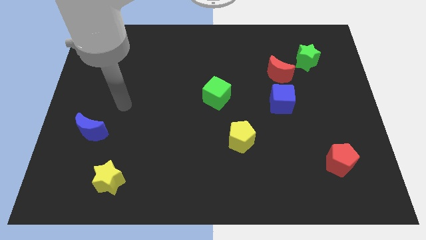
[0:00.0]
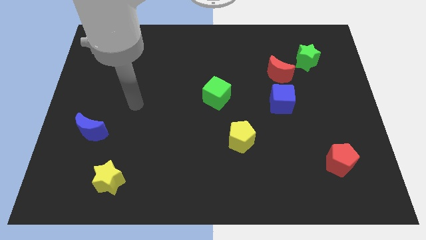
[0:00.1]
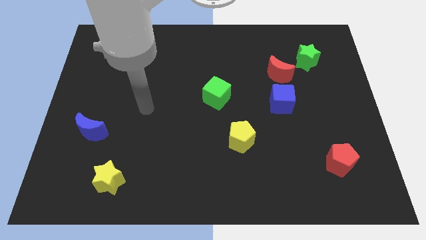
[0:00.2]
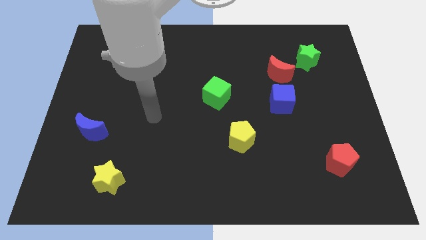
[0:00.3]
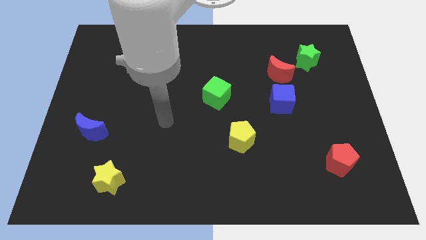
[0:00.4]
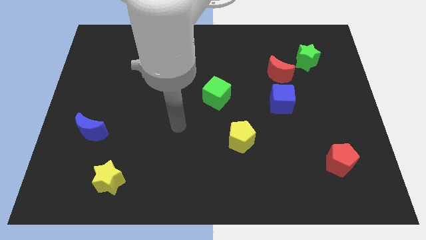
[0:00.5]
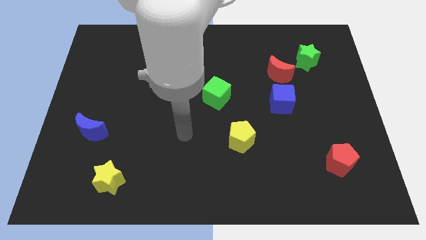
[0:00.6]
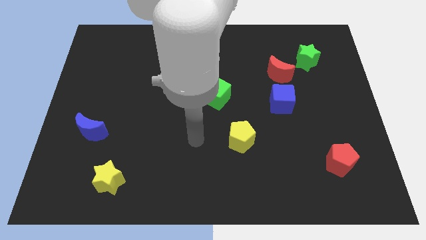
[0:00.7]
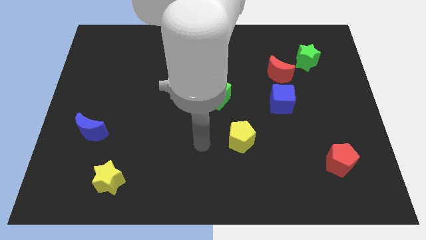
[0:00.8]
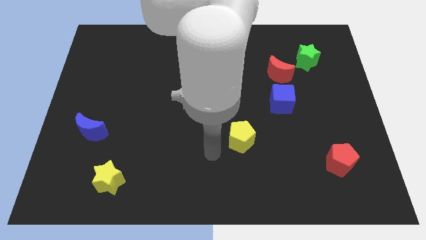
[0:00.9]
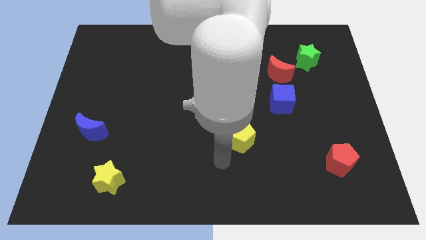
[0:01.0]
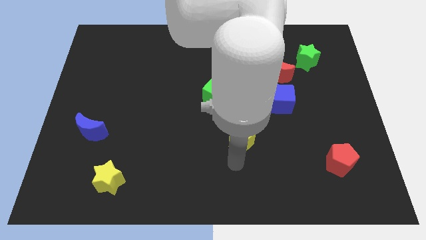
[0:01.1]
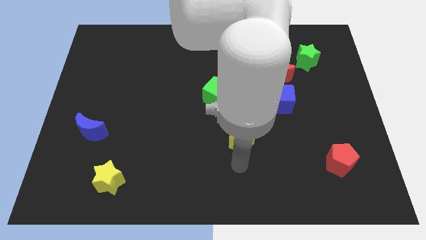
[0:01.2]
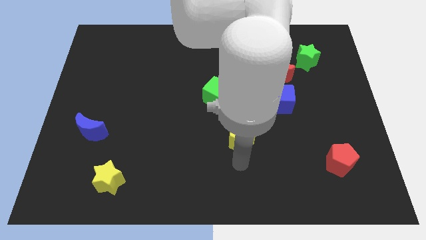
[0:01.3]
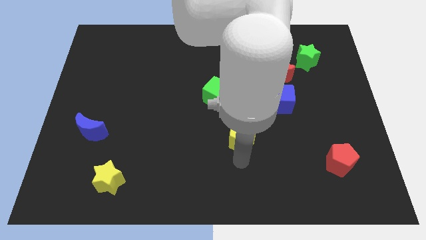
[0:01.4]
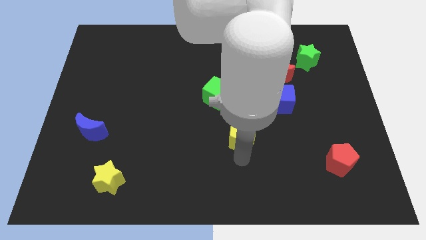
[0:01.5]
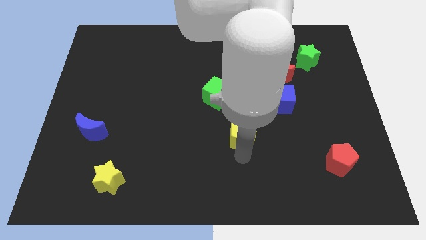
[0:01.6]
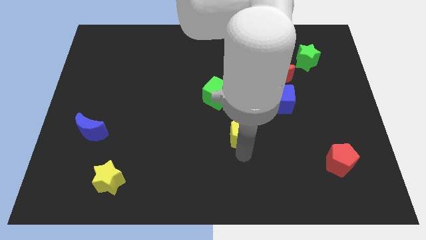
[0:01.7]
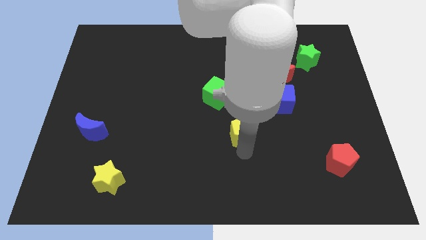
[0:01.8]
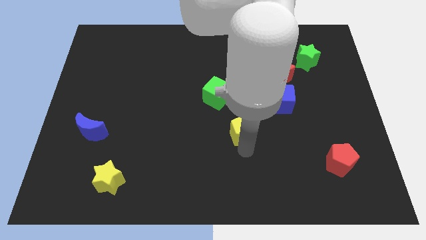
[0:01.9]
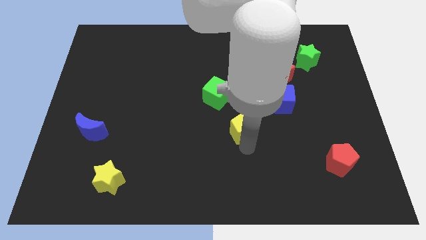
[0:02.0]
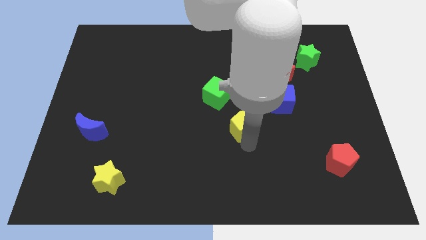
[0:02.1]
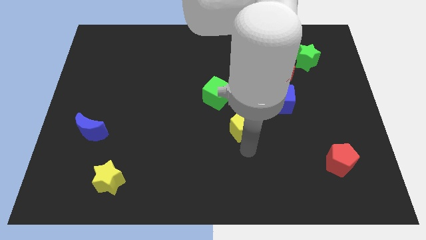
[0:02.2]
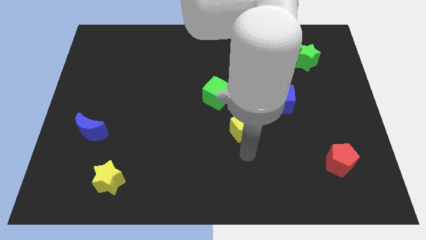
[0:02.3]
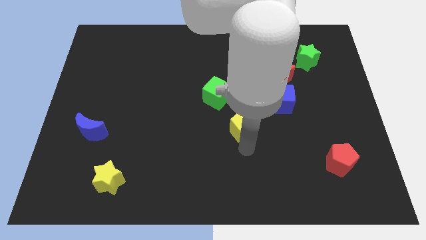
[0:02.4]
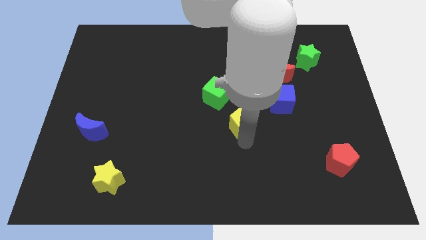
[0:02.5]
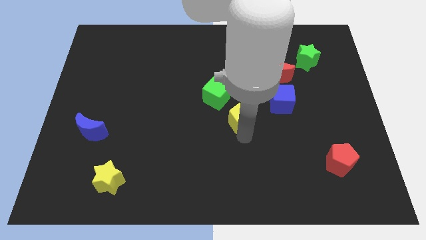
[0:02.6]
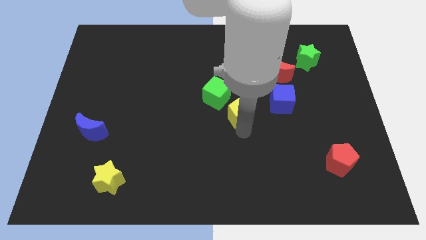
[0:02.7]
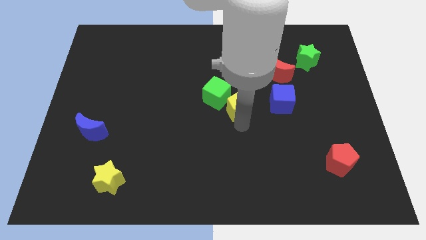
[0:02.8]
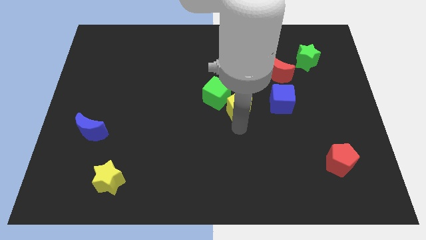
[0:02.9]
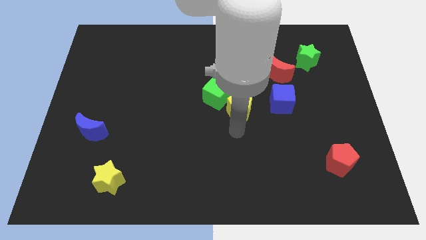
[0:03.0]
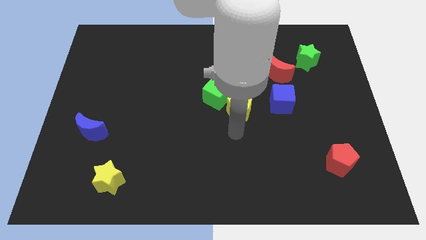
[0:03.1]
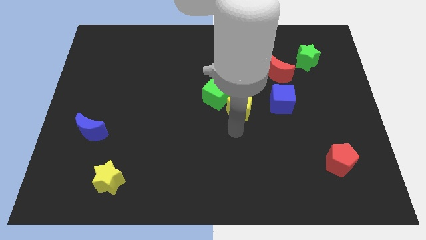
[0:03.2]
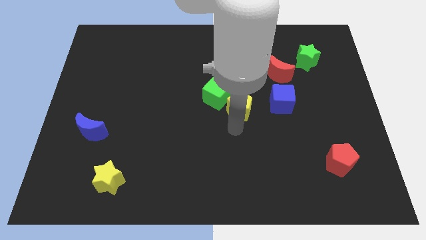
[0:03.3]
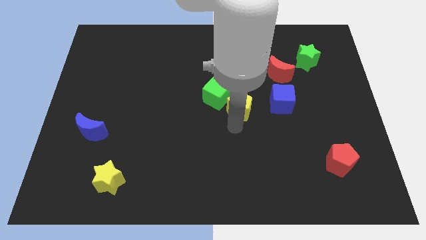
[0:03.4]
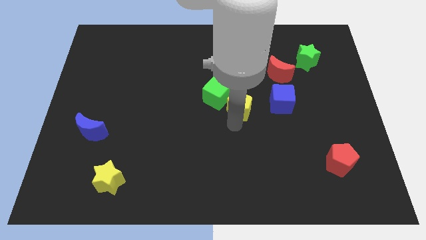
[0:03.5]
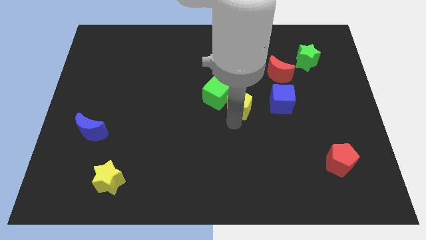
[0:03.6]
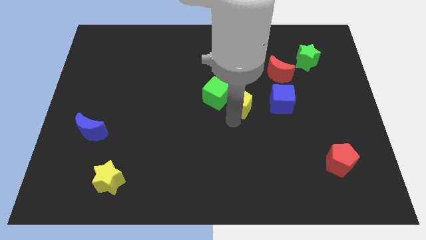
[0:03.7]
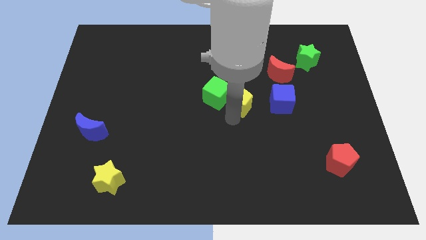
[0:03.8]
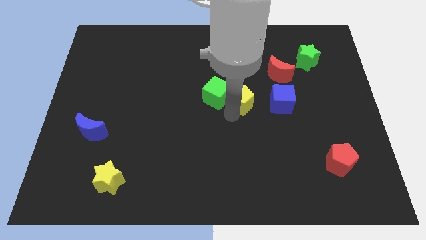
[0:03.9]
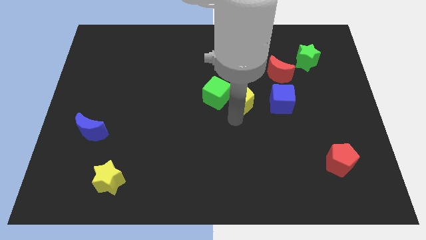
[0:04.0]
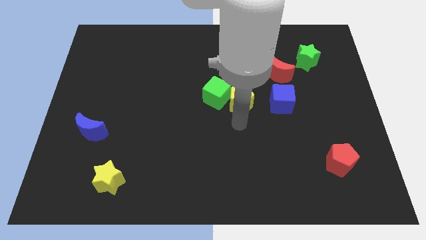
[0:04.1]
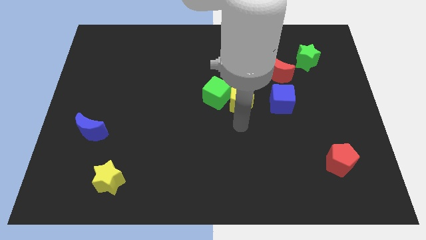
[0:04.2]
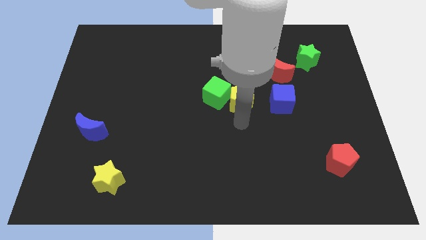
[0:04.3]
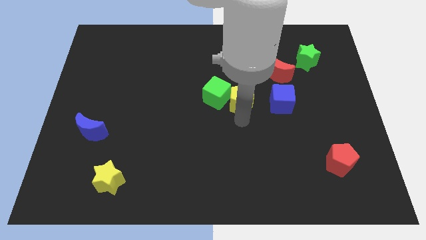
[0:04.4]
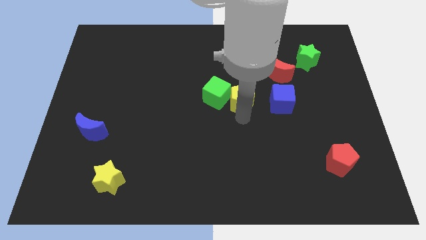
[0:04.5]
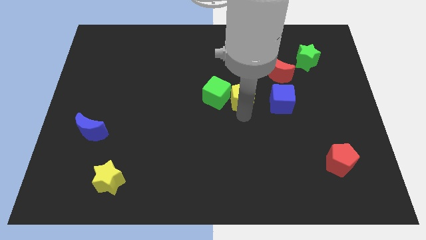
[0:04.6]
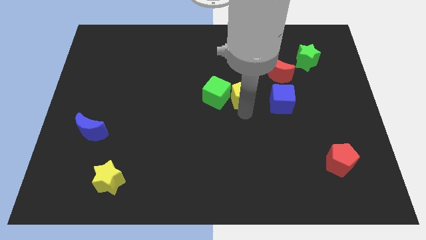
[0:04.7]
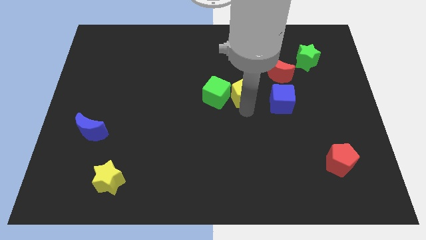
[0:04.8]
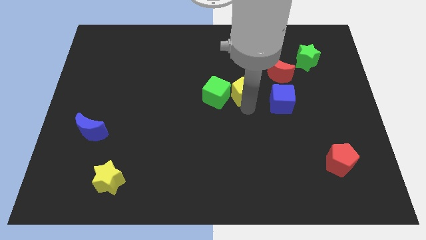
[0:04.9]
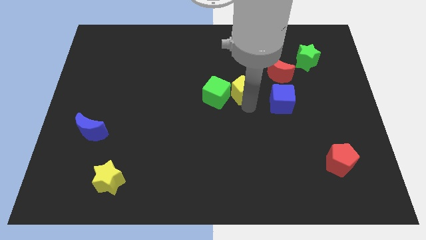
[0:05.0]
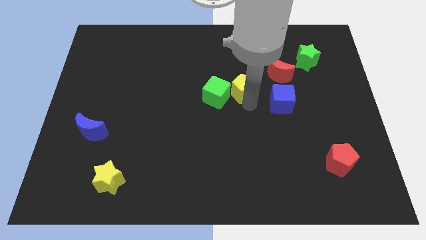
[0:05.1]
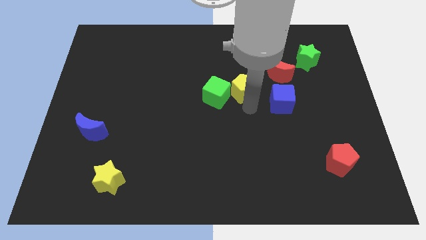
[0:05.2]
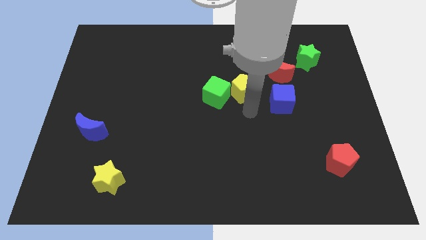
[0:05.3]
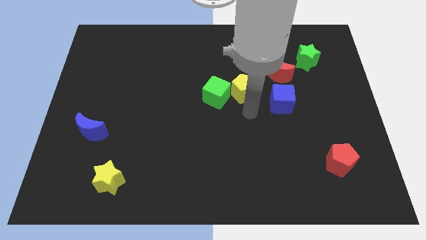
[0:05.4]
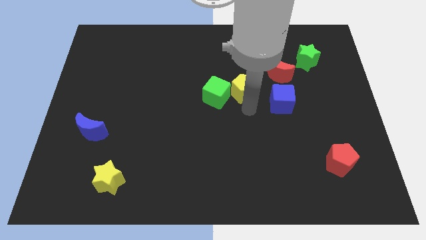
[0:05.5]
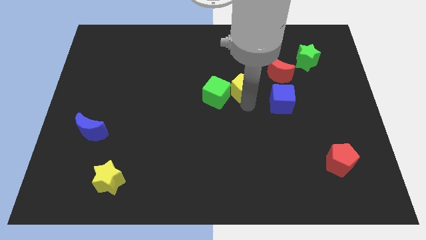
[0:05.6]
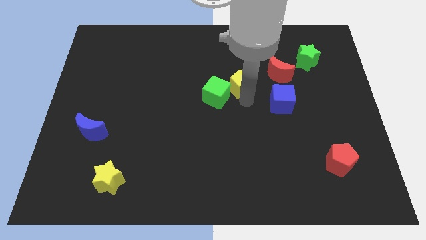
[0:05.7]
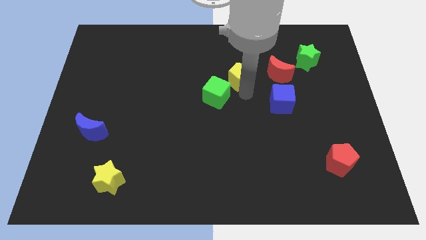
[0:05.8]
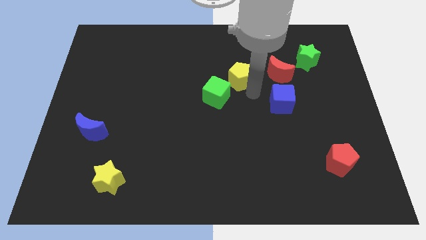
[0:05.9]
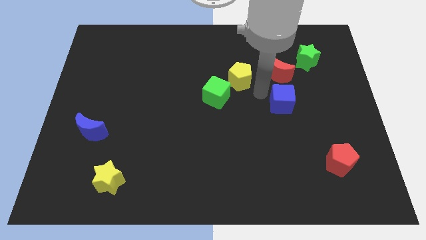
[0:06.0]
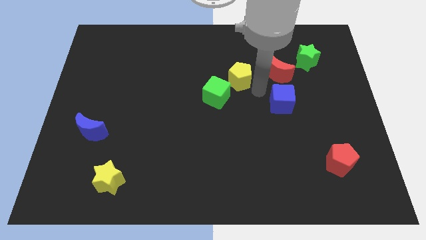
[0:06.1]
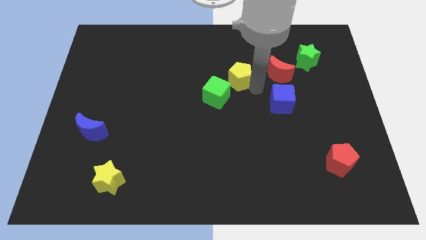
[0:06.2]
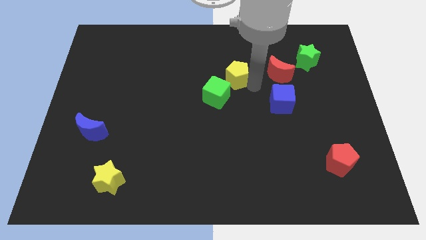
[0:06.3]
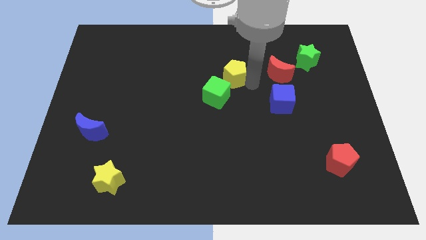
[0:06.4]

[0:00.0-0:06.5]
push the yellow pentagon to the top of the green cube

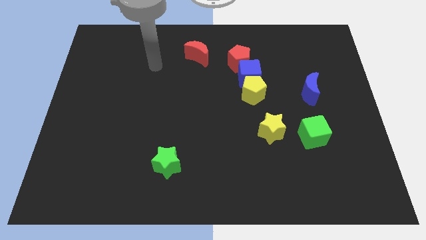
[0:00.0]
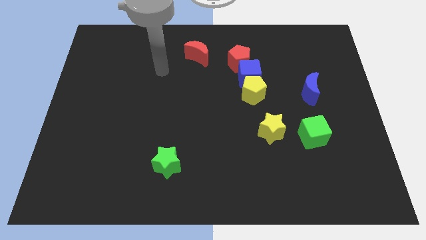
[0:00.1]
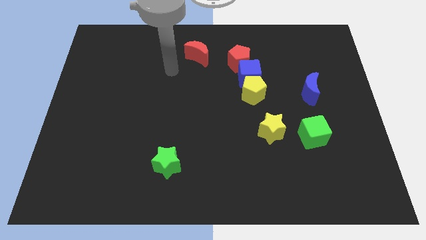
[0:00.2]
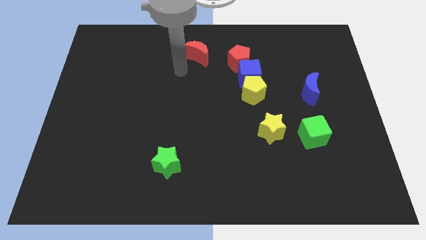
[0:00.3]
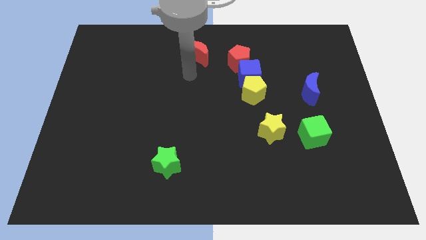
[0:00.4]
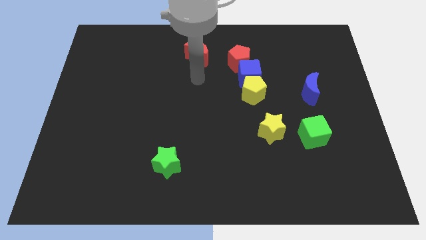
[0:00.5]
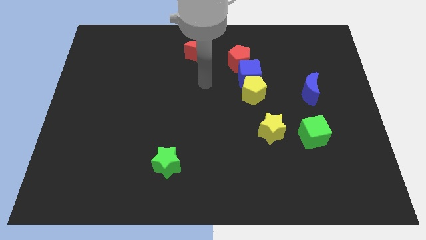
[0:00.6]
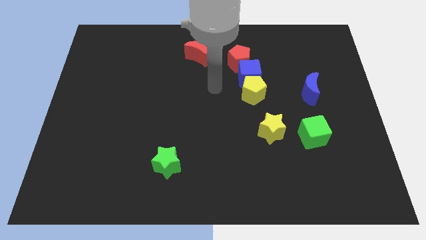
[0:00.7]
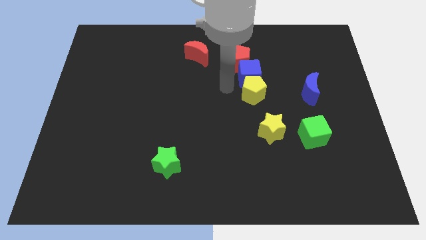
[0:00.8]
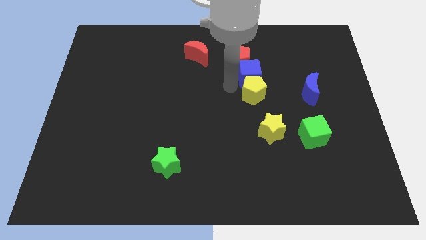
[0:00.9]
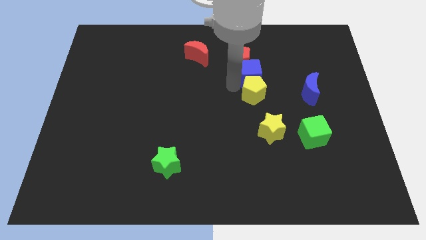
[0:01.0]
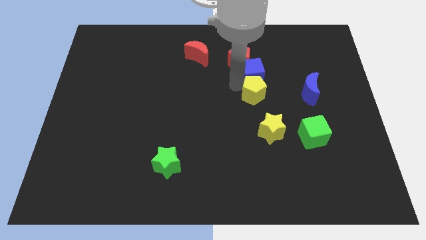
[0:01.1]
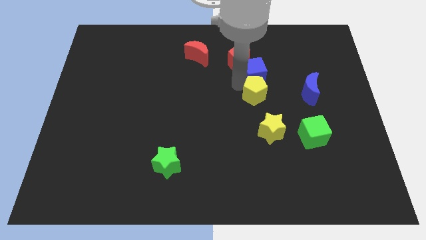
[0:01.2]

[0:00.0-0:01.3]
slide the blue cube to the right of the red pentagon
